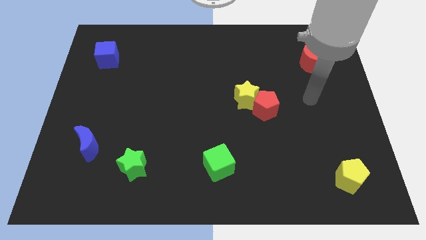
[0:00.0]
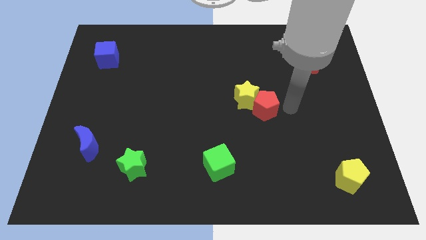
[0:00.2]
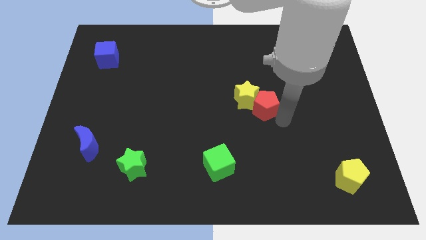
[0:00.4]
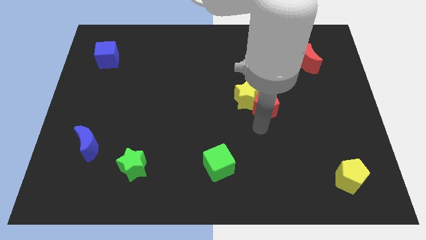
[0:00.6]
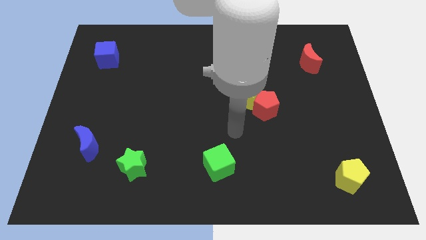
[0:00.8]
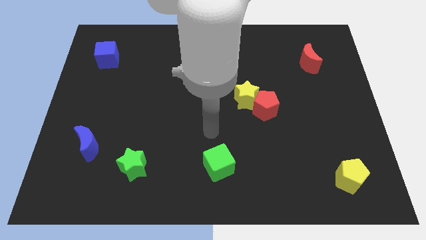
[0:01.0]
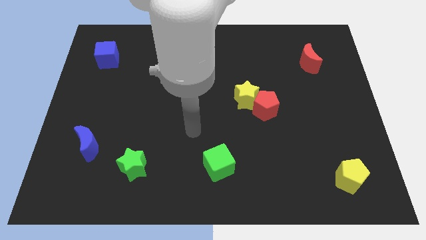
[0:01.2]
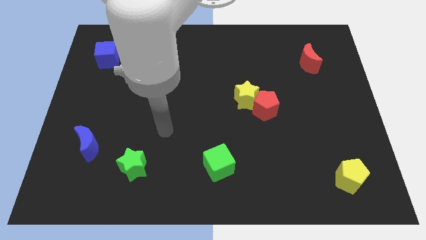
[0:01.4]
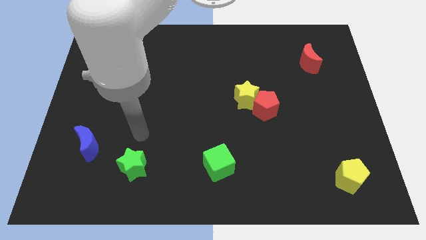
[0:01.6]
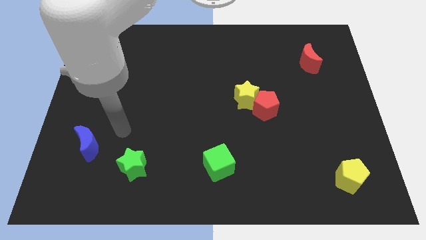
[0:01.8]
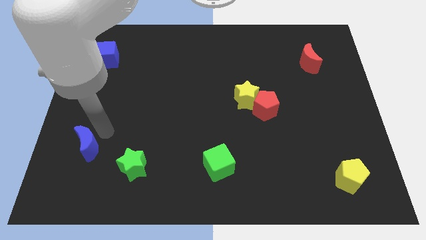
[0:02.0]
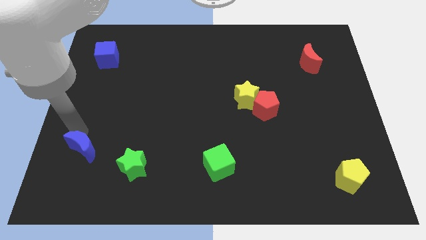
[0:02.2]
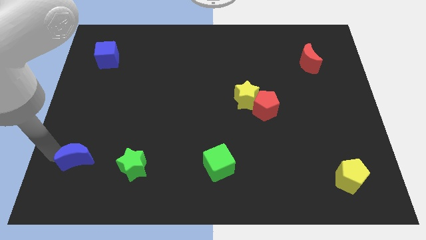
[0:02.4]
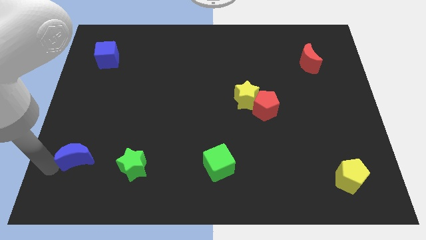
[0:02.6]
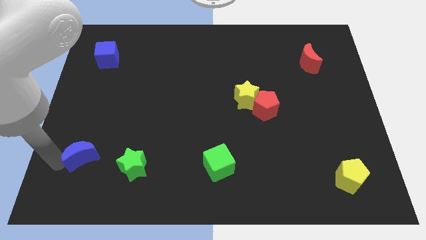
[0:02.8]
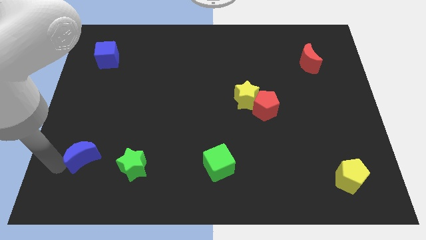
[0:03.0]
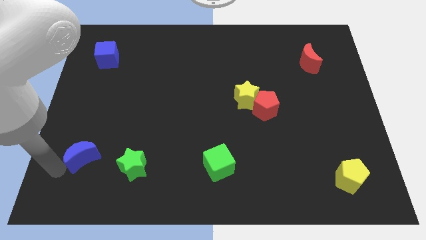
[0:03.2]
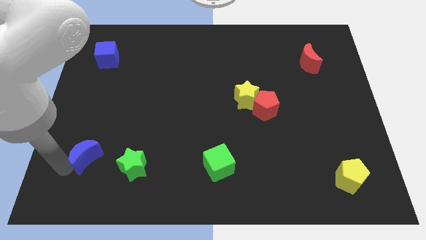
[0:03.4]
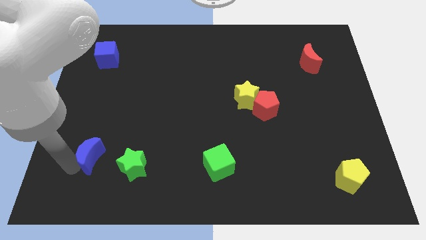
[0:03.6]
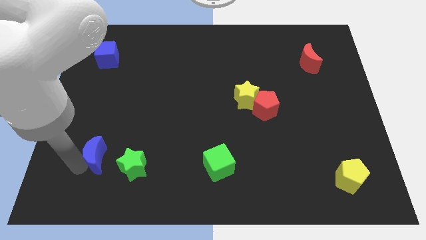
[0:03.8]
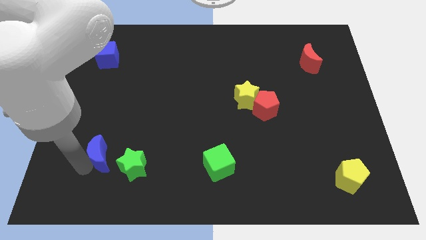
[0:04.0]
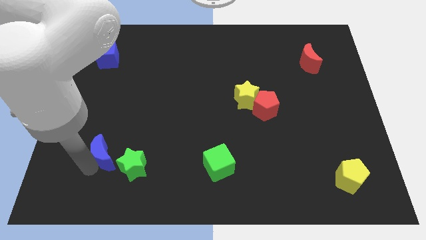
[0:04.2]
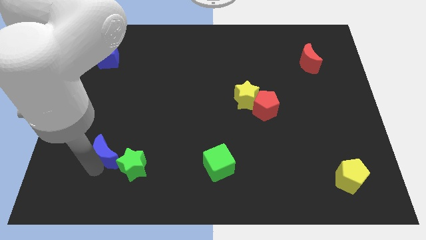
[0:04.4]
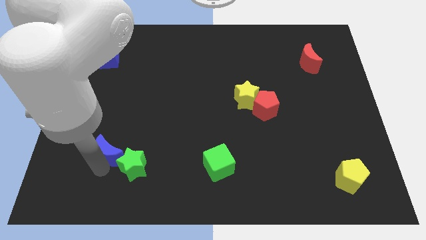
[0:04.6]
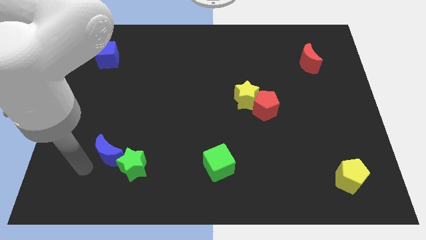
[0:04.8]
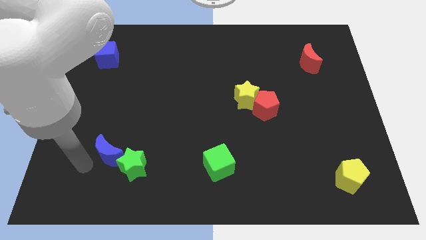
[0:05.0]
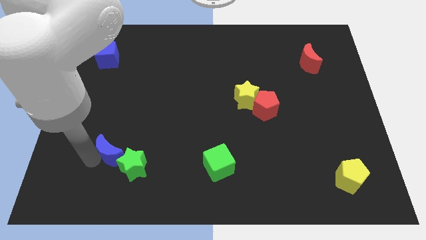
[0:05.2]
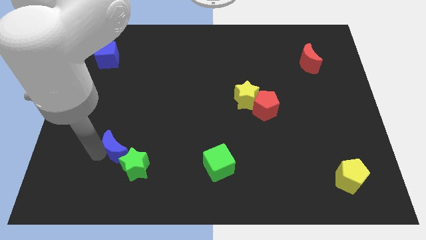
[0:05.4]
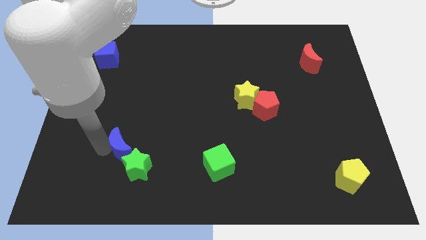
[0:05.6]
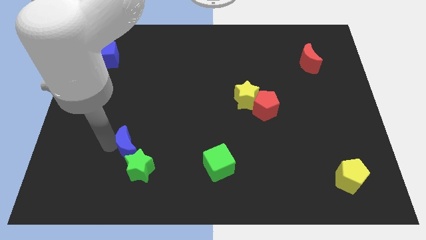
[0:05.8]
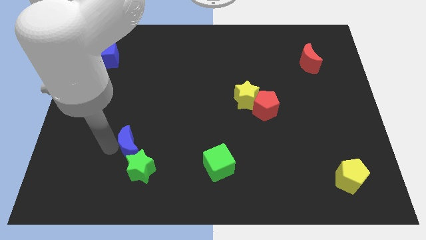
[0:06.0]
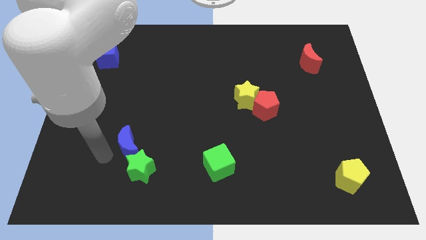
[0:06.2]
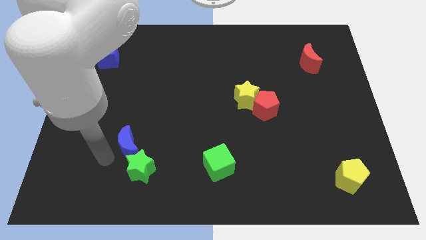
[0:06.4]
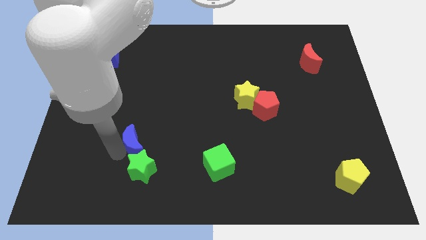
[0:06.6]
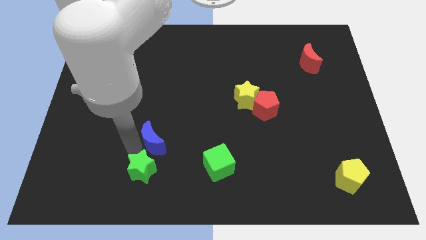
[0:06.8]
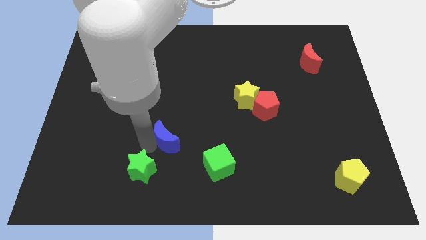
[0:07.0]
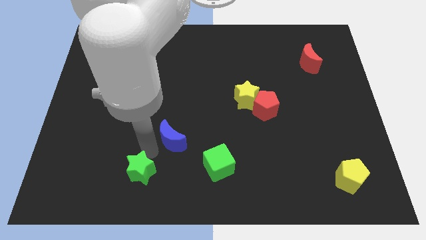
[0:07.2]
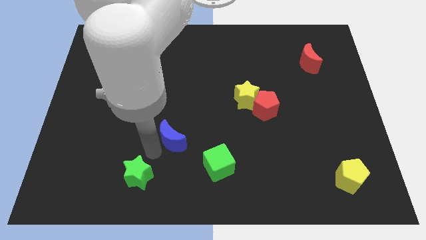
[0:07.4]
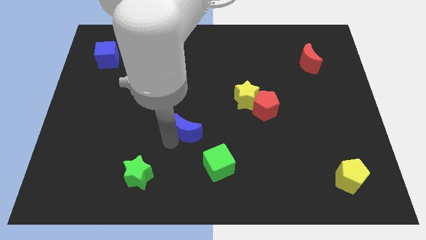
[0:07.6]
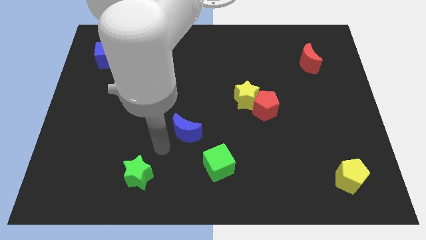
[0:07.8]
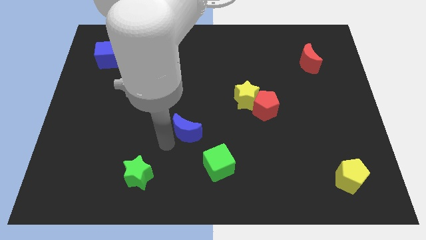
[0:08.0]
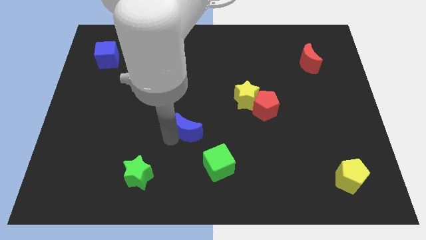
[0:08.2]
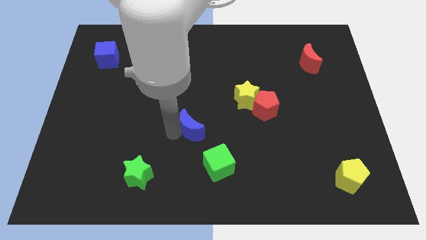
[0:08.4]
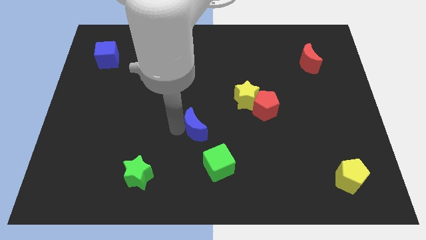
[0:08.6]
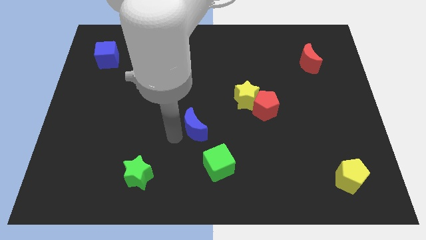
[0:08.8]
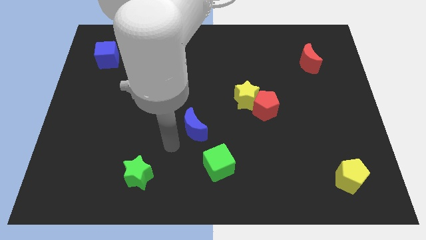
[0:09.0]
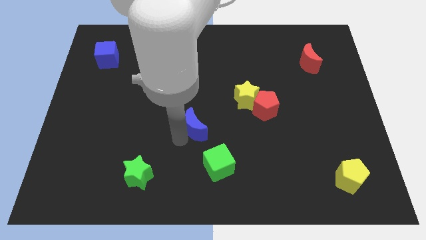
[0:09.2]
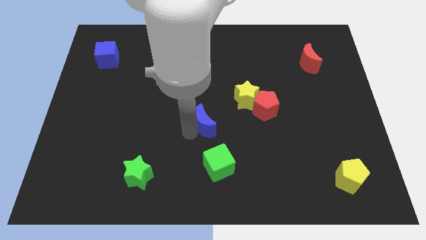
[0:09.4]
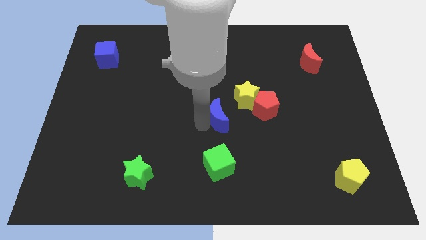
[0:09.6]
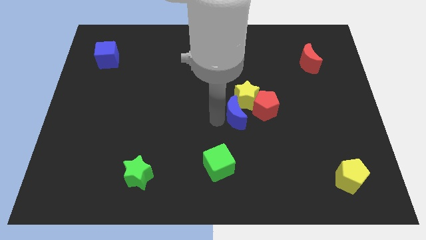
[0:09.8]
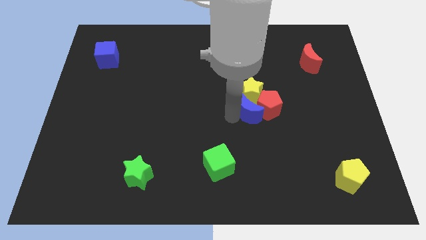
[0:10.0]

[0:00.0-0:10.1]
put the blue moon close to the red pentagon

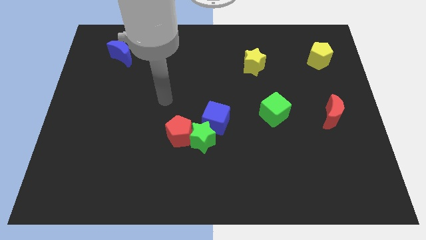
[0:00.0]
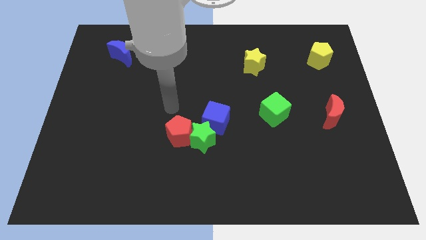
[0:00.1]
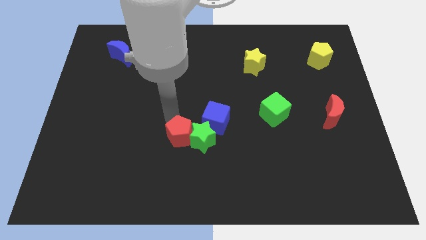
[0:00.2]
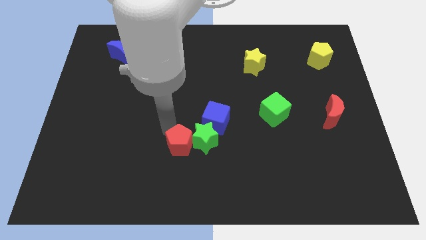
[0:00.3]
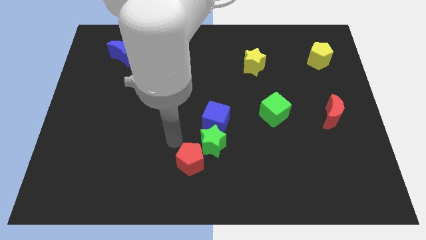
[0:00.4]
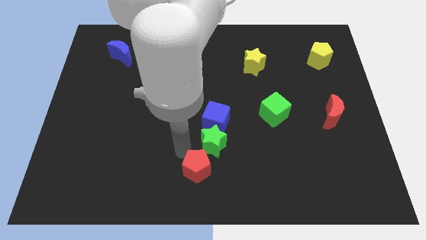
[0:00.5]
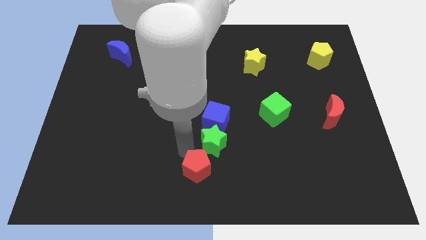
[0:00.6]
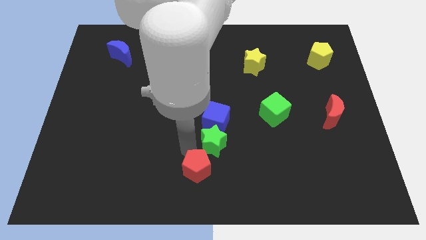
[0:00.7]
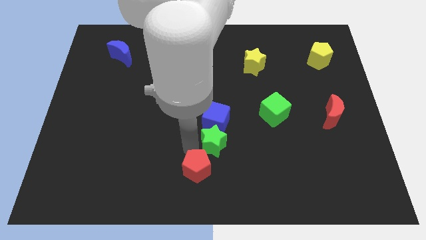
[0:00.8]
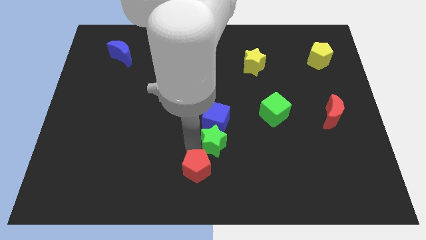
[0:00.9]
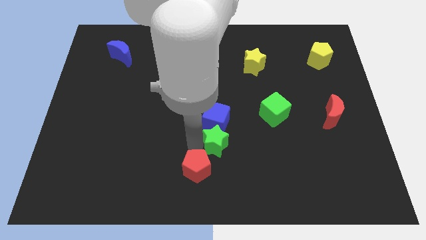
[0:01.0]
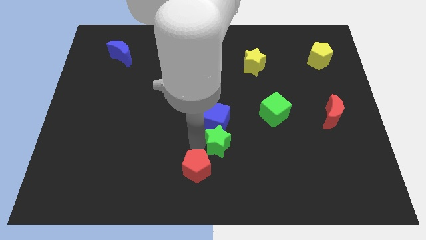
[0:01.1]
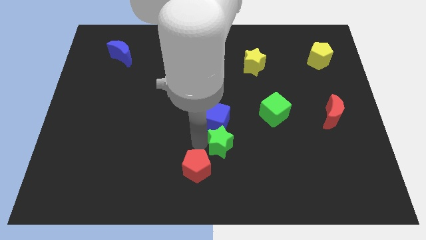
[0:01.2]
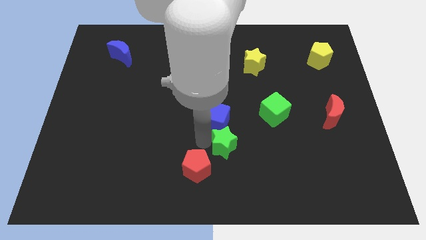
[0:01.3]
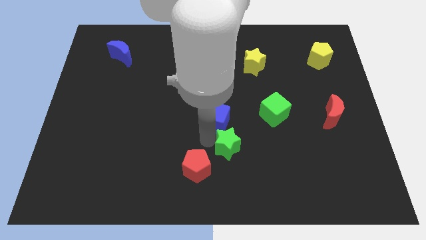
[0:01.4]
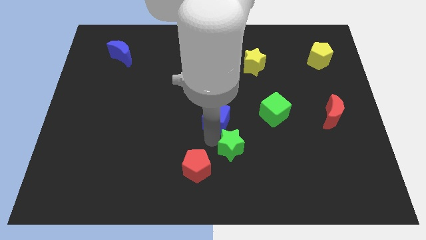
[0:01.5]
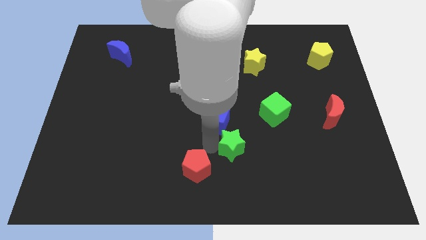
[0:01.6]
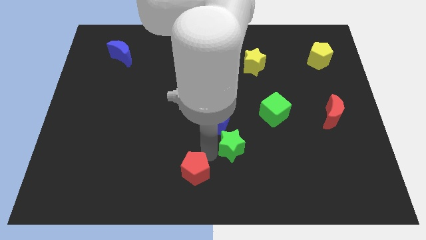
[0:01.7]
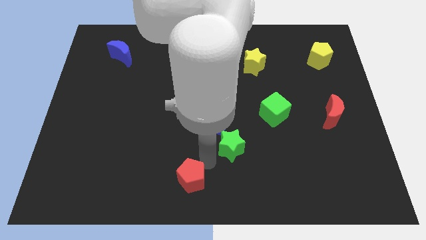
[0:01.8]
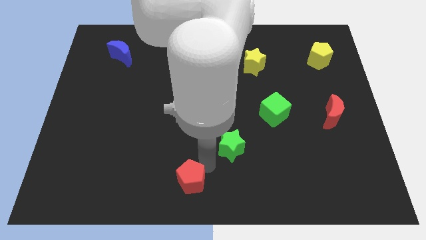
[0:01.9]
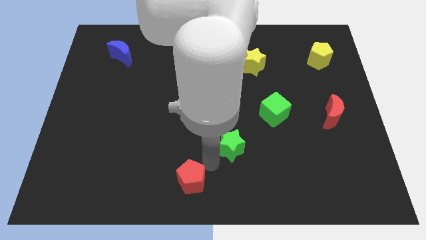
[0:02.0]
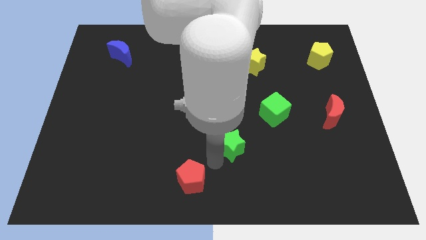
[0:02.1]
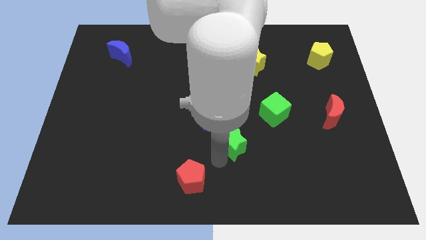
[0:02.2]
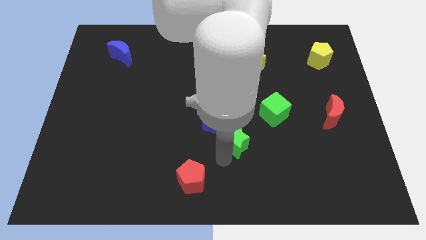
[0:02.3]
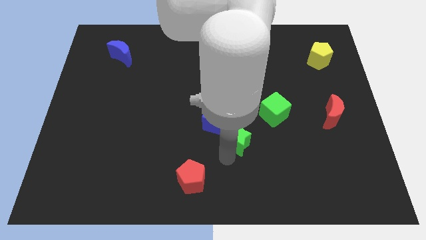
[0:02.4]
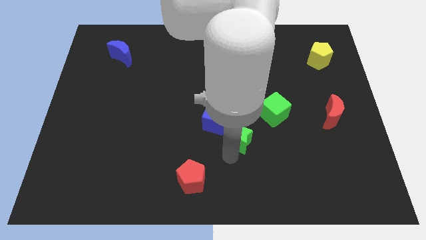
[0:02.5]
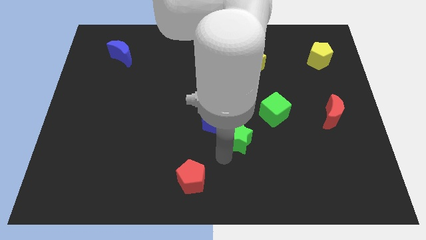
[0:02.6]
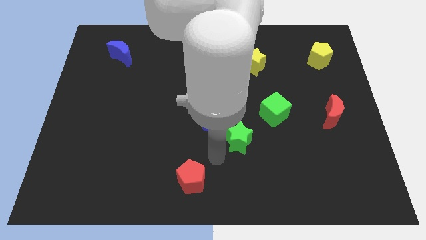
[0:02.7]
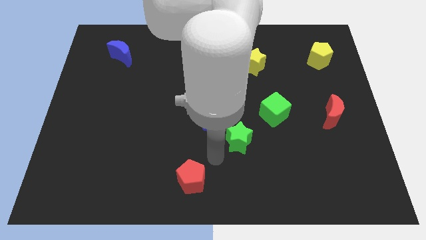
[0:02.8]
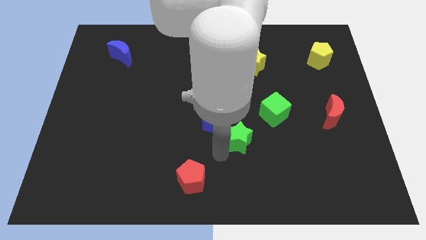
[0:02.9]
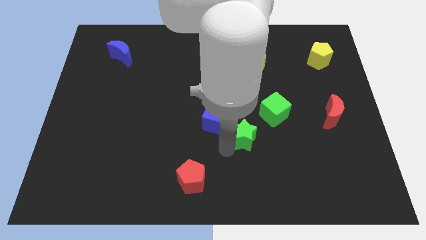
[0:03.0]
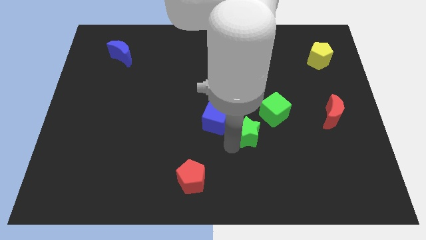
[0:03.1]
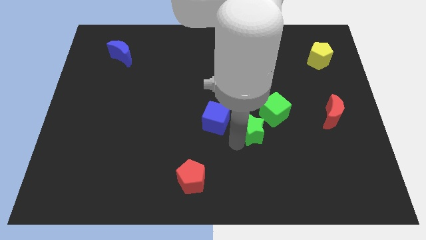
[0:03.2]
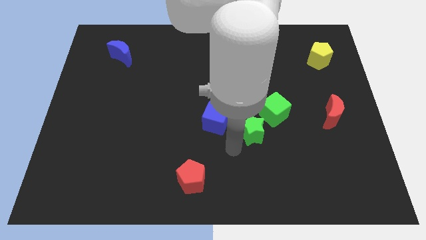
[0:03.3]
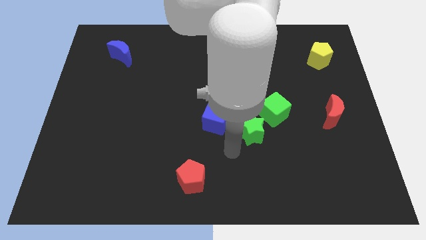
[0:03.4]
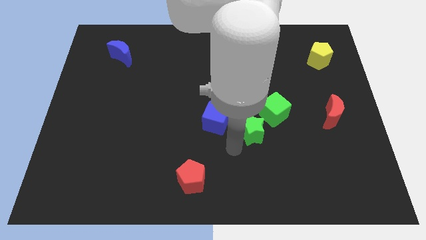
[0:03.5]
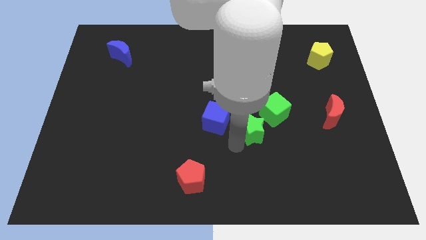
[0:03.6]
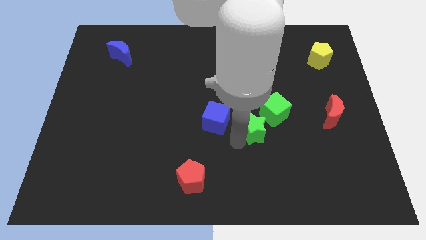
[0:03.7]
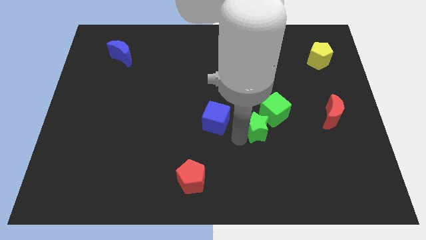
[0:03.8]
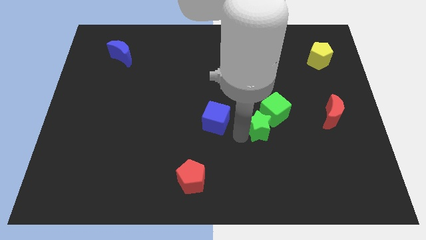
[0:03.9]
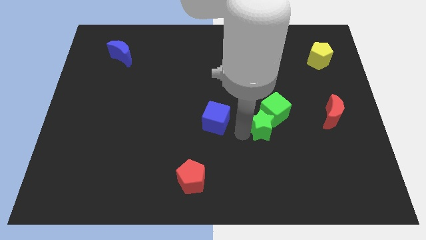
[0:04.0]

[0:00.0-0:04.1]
slide the green star close to the green cube
